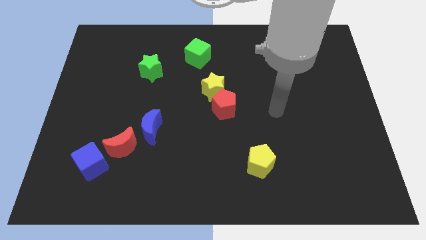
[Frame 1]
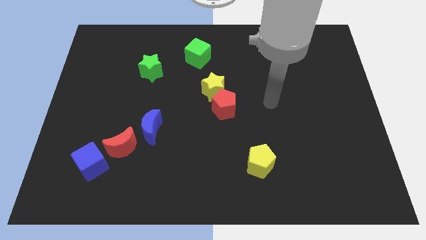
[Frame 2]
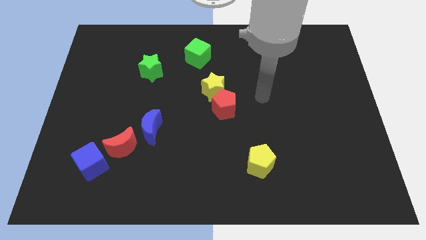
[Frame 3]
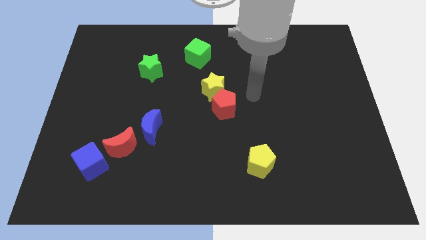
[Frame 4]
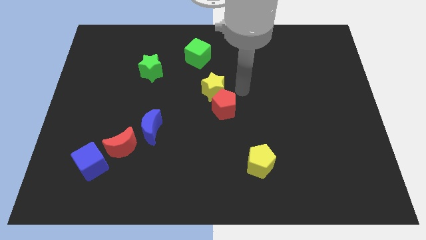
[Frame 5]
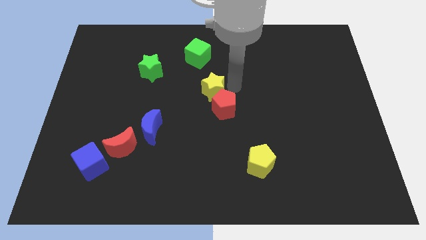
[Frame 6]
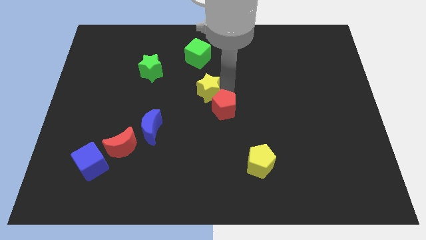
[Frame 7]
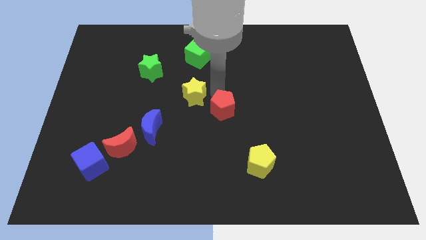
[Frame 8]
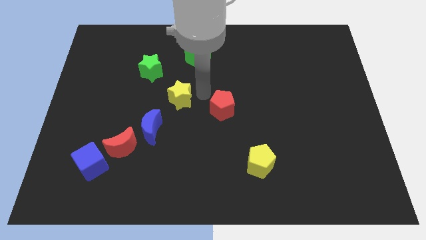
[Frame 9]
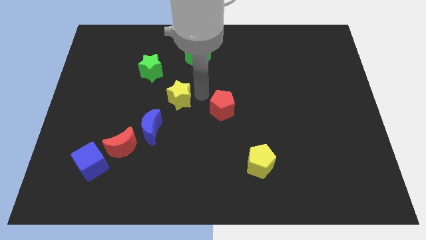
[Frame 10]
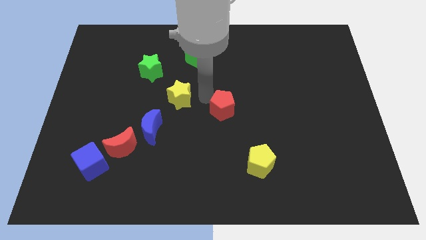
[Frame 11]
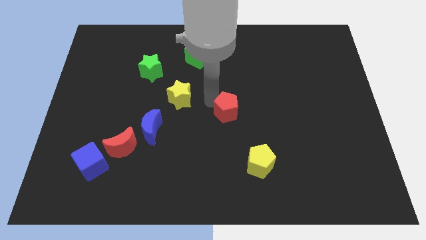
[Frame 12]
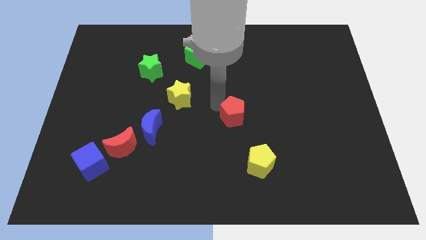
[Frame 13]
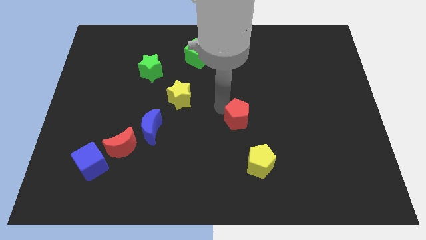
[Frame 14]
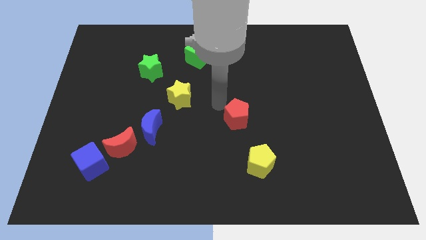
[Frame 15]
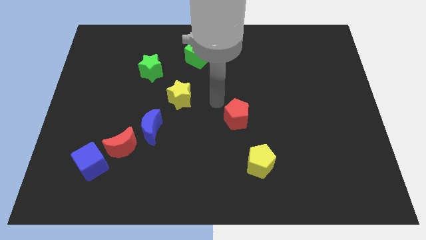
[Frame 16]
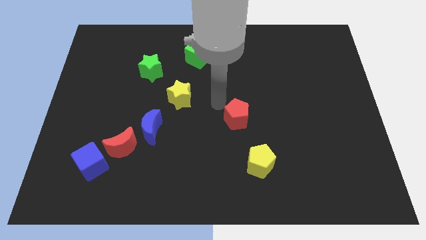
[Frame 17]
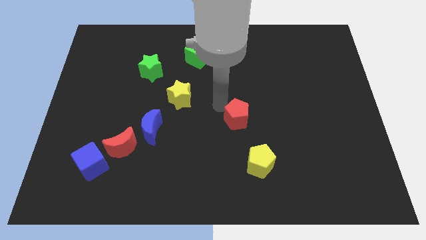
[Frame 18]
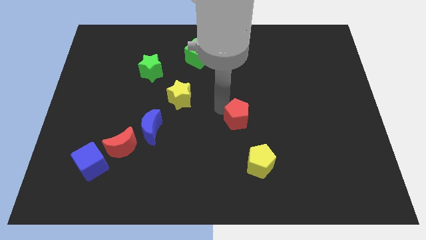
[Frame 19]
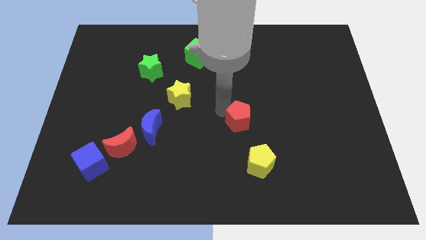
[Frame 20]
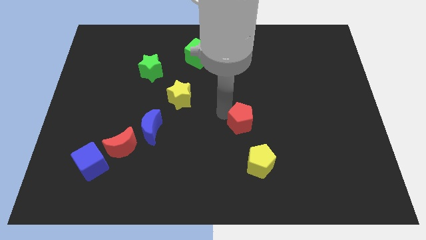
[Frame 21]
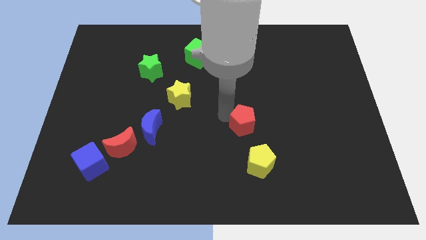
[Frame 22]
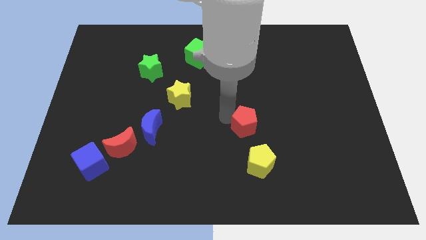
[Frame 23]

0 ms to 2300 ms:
slightly push the red pentagon down and to the right diagonally

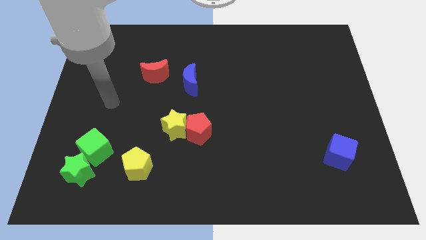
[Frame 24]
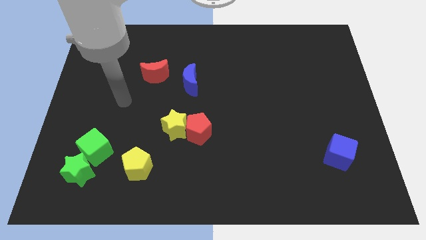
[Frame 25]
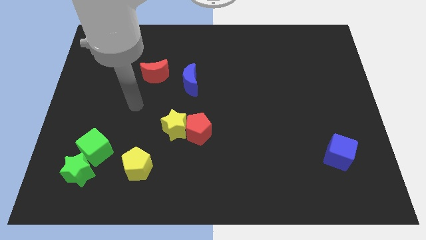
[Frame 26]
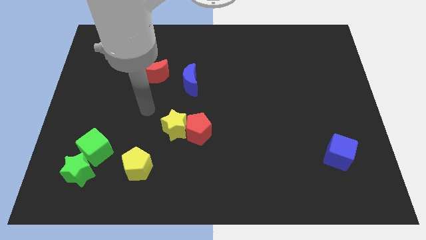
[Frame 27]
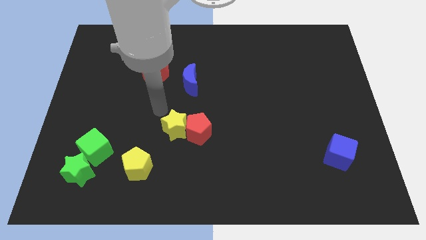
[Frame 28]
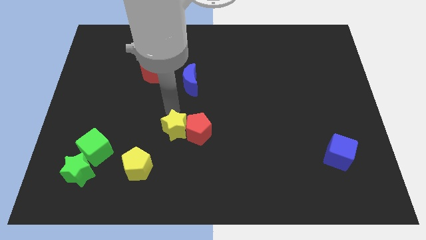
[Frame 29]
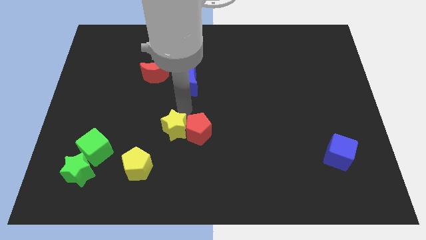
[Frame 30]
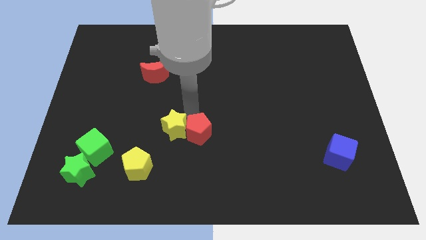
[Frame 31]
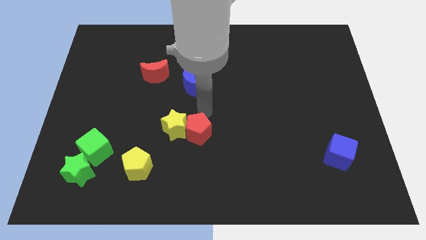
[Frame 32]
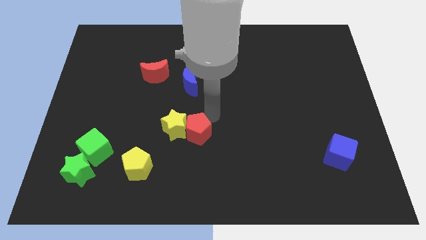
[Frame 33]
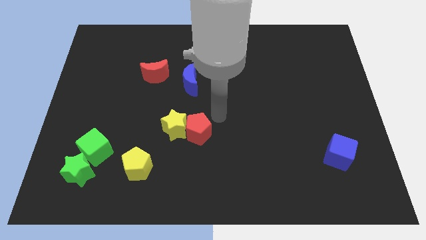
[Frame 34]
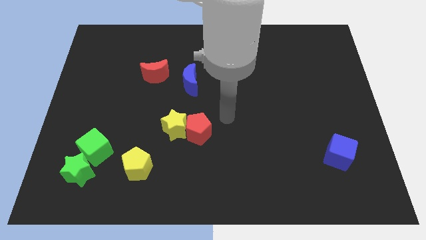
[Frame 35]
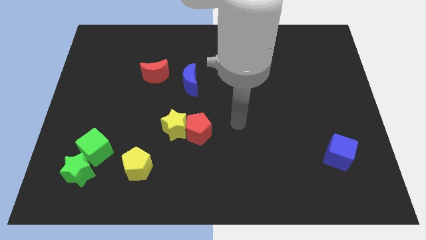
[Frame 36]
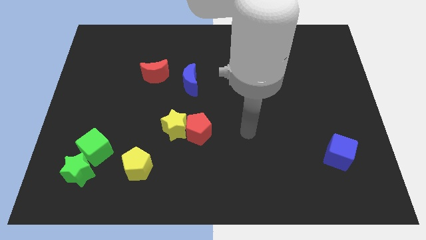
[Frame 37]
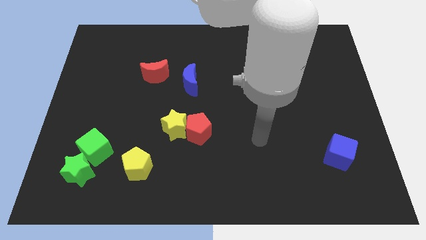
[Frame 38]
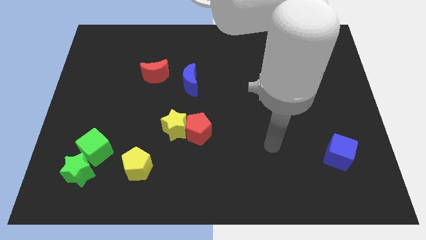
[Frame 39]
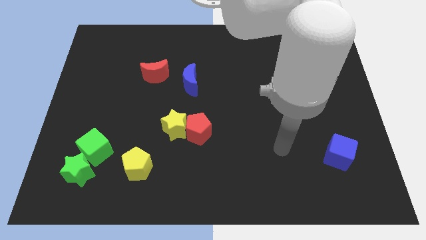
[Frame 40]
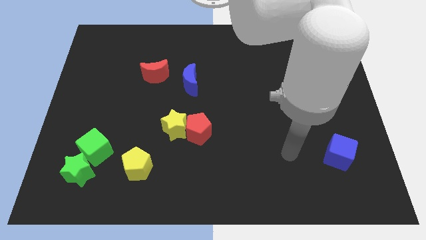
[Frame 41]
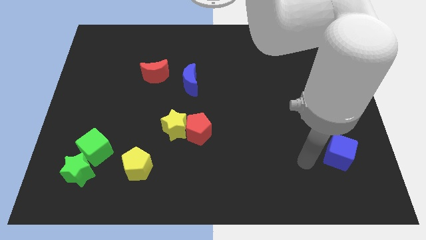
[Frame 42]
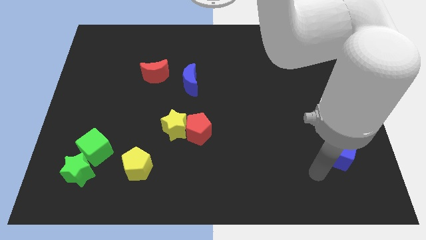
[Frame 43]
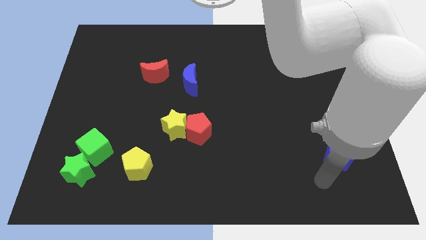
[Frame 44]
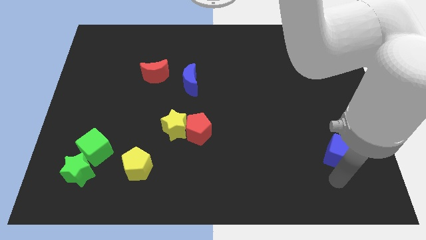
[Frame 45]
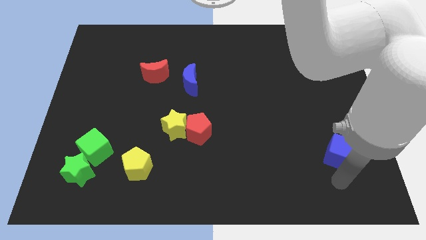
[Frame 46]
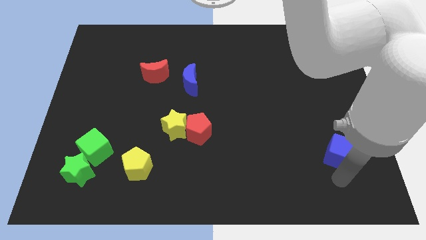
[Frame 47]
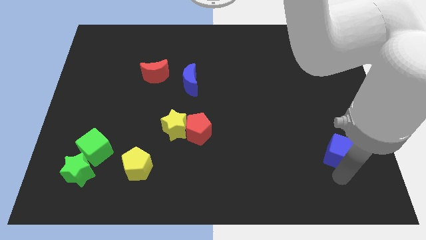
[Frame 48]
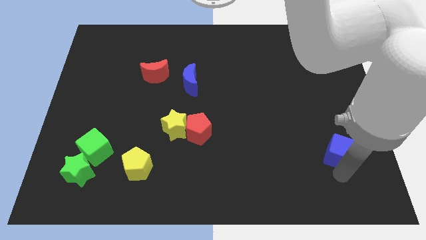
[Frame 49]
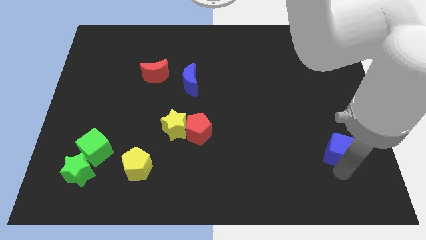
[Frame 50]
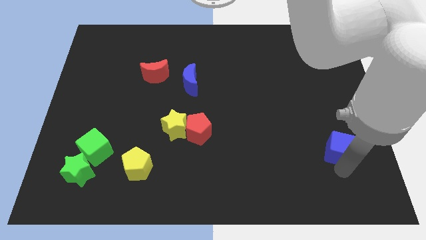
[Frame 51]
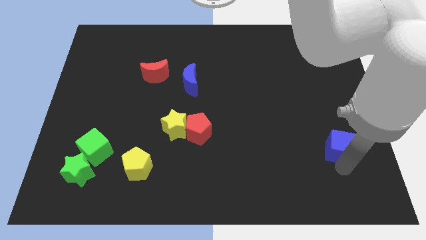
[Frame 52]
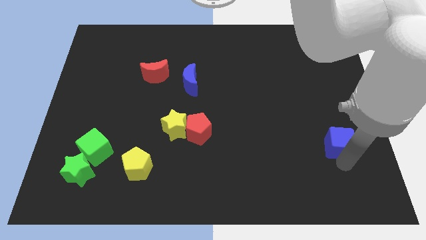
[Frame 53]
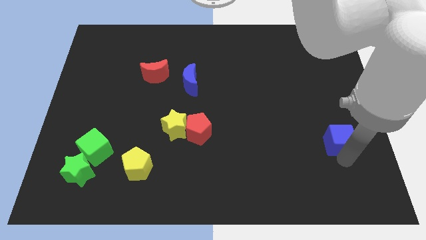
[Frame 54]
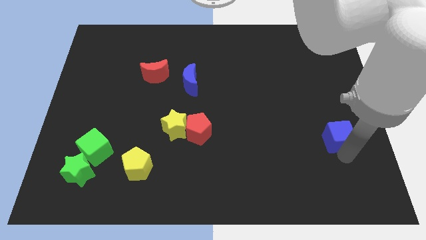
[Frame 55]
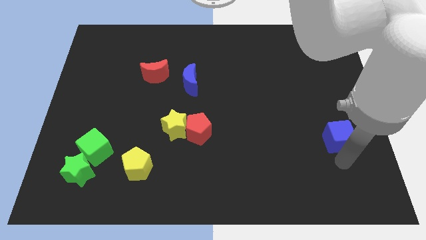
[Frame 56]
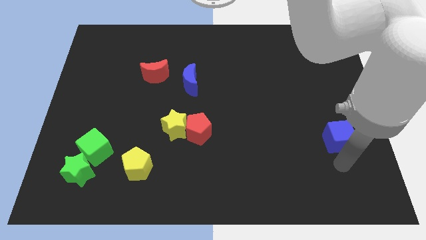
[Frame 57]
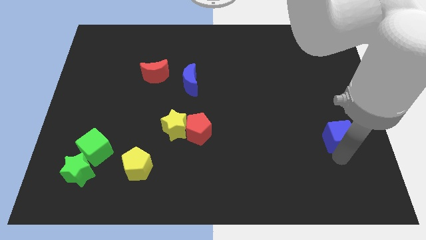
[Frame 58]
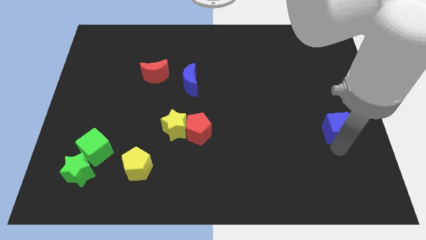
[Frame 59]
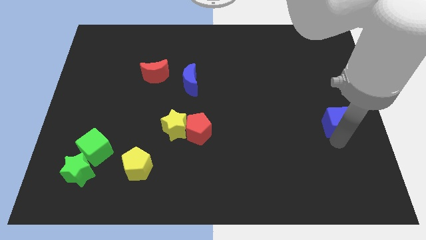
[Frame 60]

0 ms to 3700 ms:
push the blue cube somewhat upwards

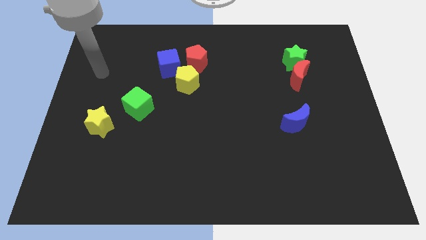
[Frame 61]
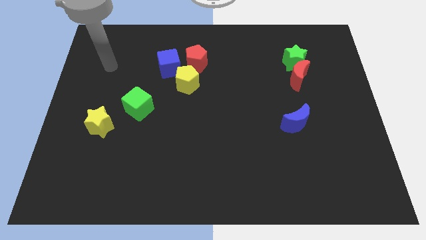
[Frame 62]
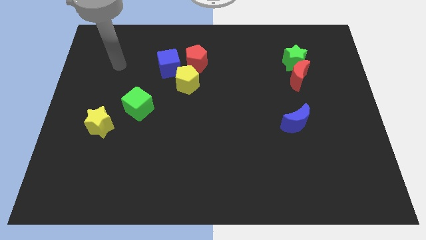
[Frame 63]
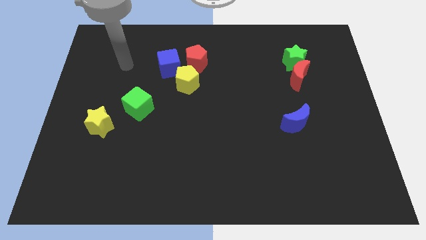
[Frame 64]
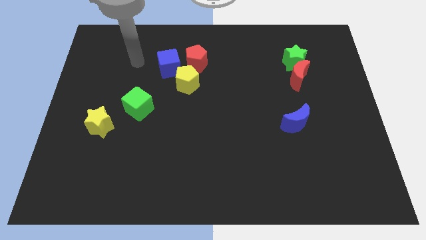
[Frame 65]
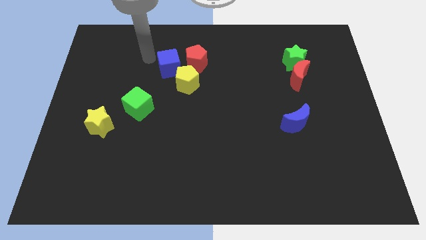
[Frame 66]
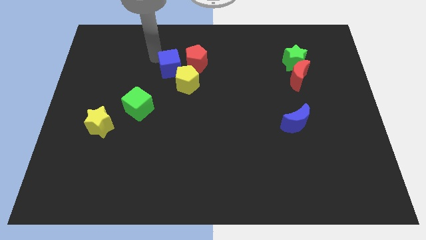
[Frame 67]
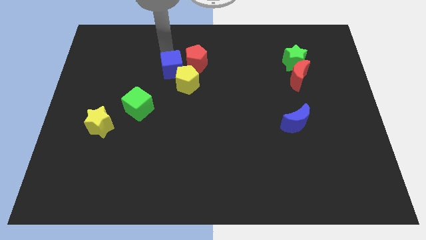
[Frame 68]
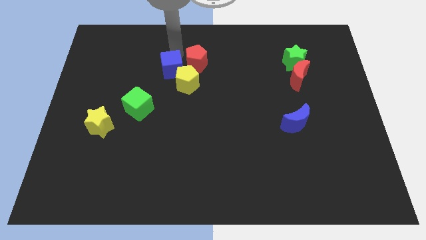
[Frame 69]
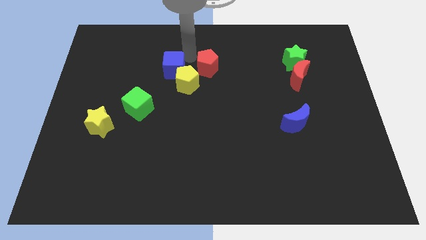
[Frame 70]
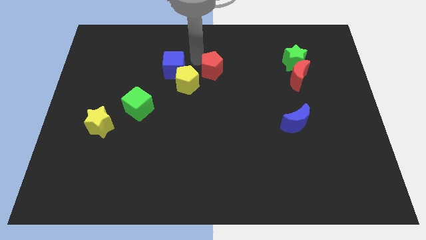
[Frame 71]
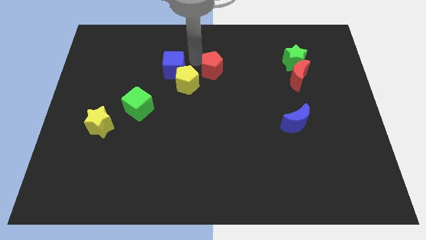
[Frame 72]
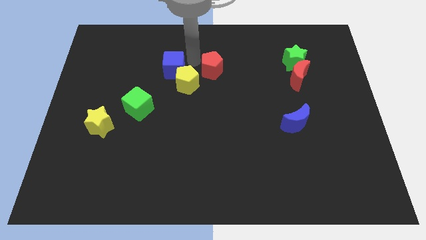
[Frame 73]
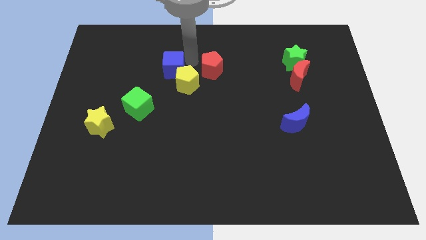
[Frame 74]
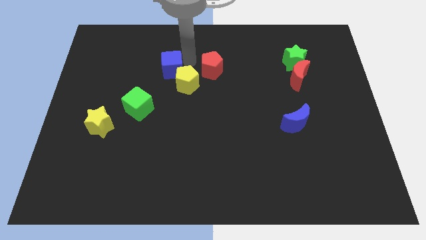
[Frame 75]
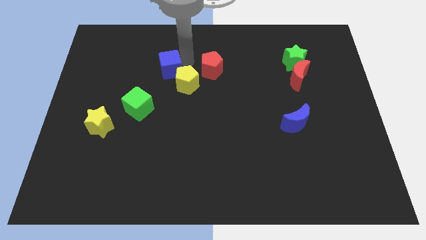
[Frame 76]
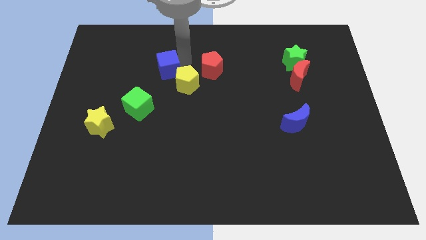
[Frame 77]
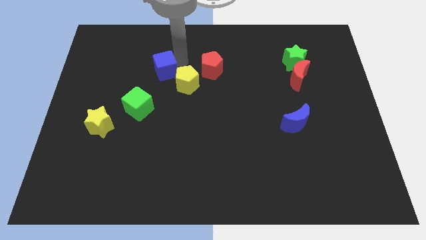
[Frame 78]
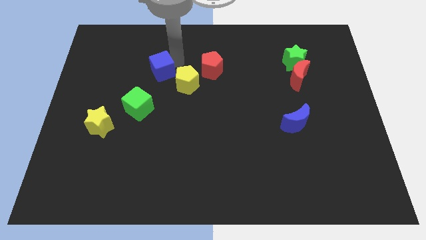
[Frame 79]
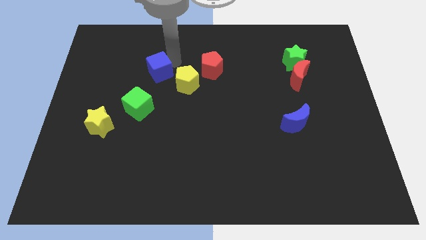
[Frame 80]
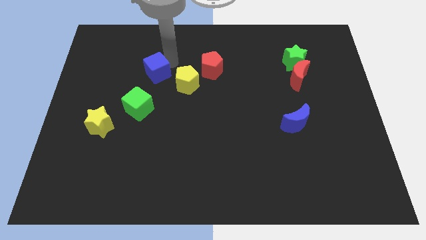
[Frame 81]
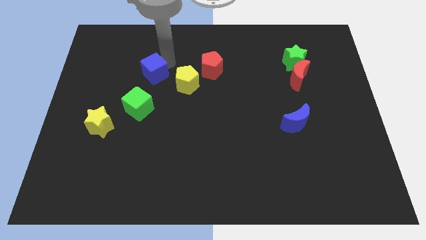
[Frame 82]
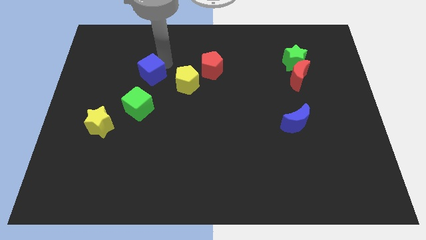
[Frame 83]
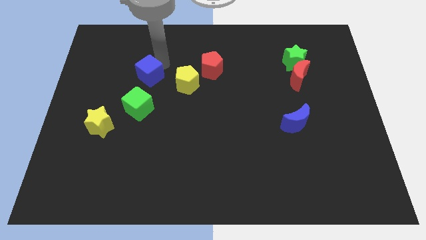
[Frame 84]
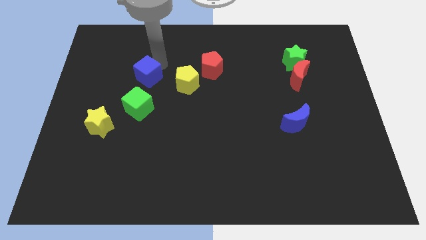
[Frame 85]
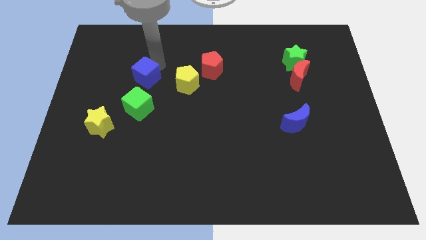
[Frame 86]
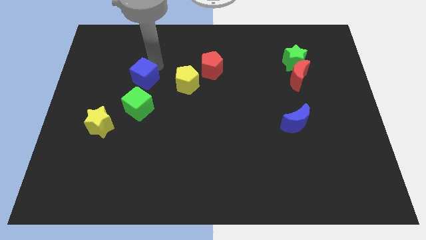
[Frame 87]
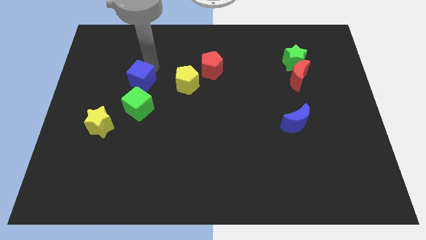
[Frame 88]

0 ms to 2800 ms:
slide the blue cube down and left a bit
